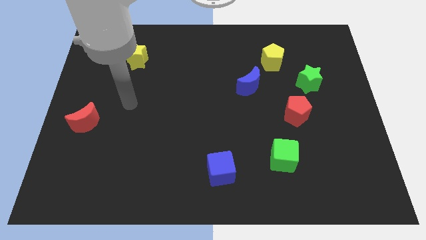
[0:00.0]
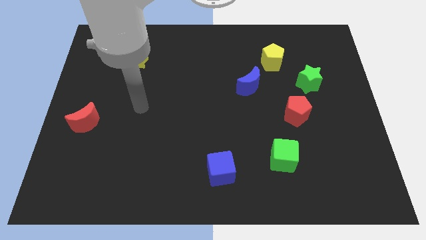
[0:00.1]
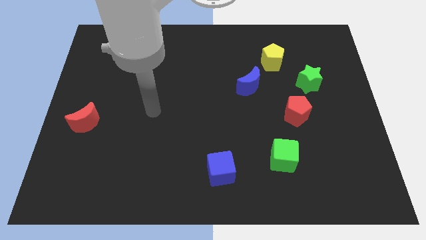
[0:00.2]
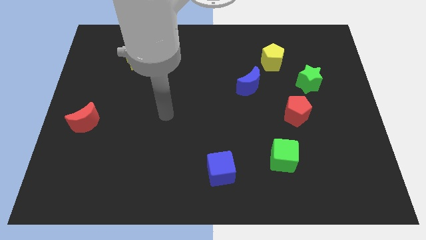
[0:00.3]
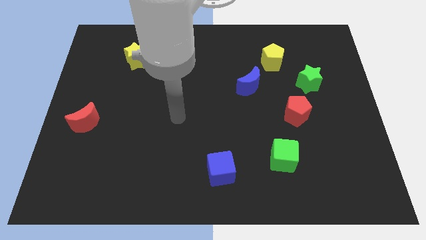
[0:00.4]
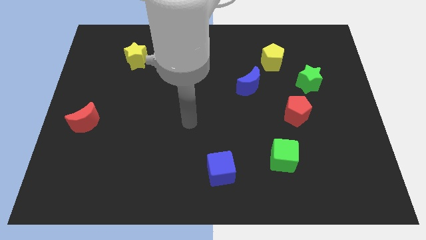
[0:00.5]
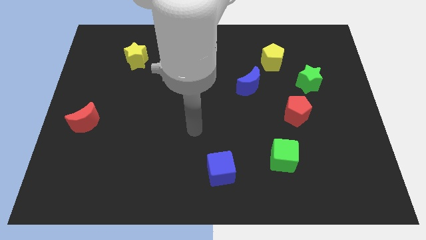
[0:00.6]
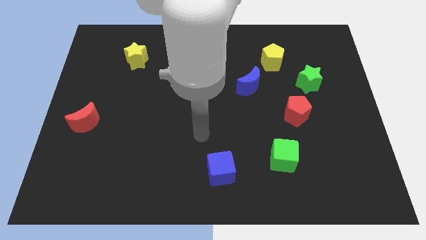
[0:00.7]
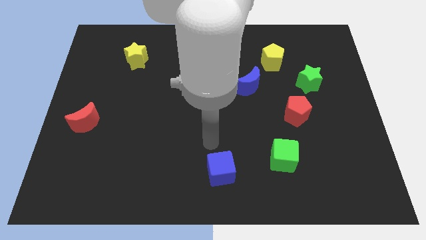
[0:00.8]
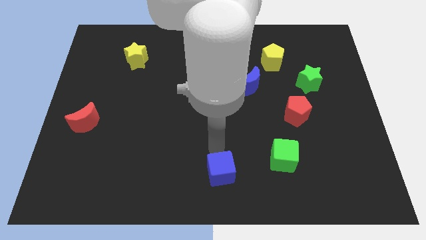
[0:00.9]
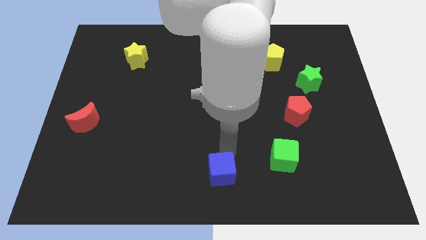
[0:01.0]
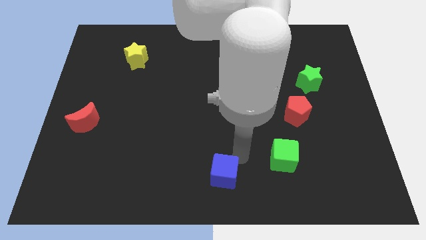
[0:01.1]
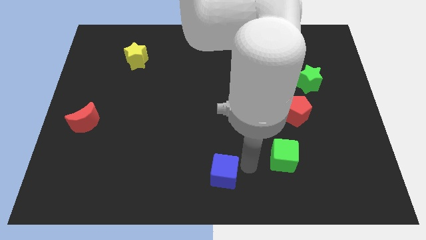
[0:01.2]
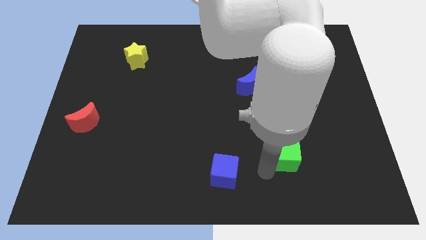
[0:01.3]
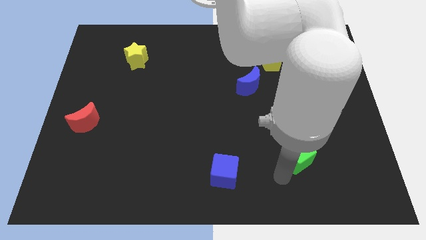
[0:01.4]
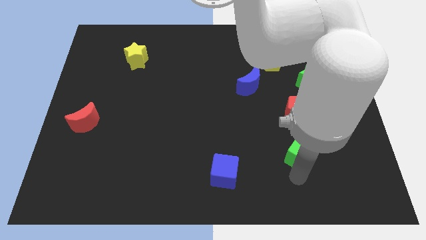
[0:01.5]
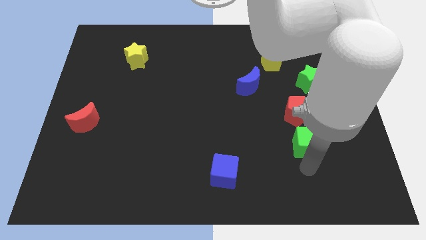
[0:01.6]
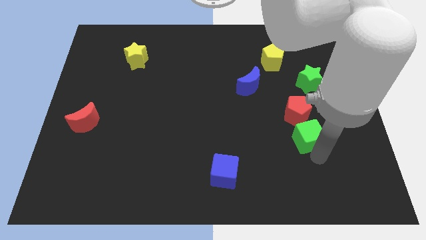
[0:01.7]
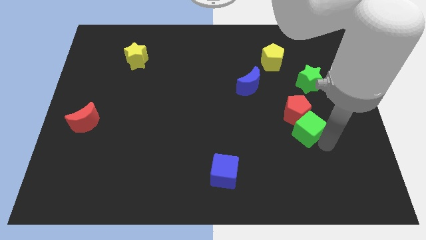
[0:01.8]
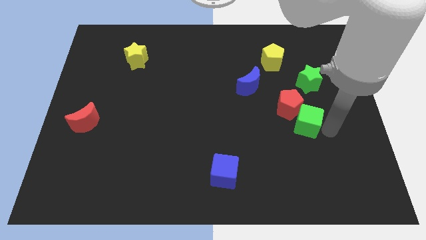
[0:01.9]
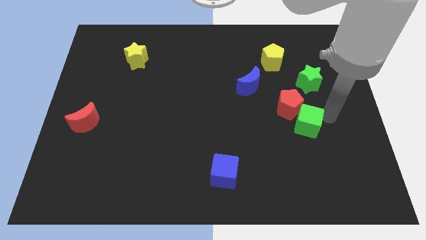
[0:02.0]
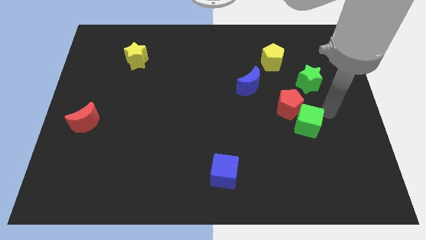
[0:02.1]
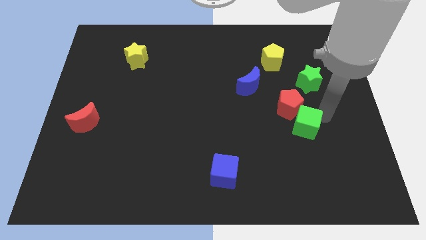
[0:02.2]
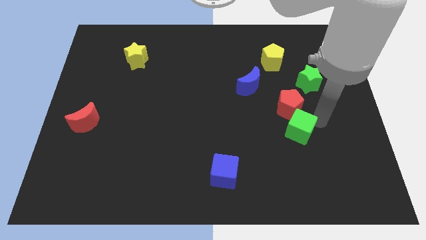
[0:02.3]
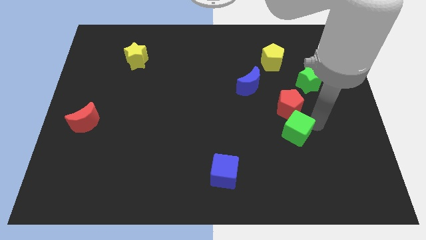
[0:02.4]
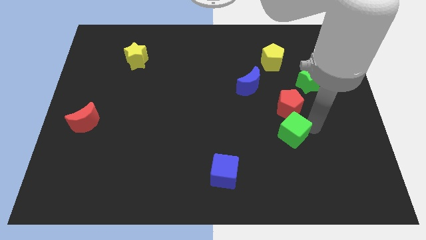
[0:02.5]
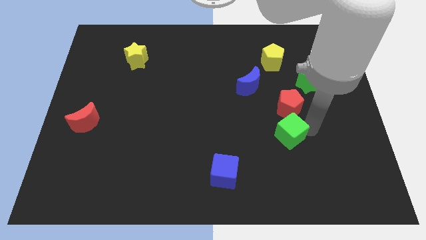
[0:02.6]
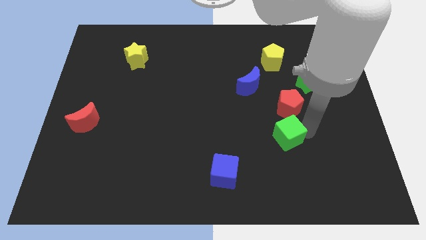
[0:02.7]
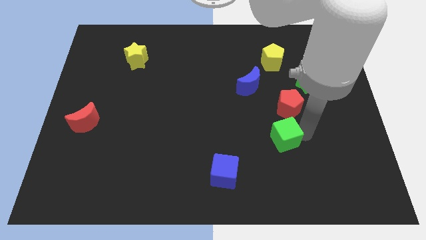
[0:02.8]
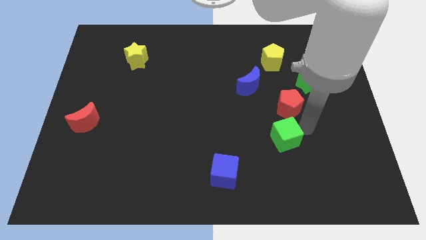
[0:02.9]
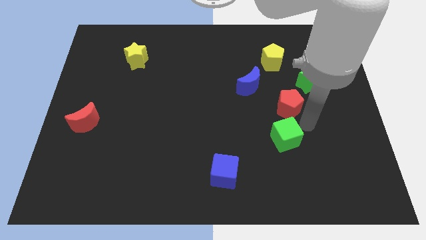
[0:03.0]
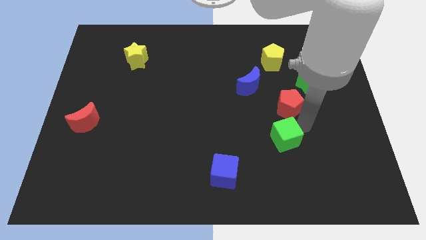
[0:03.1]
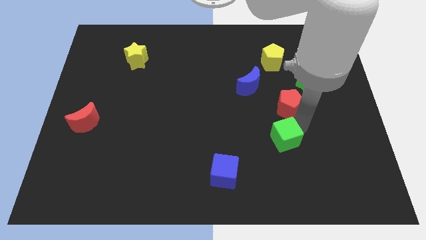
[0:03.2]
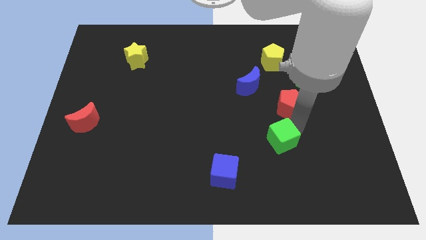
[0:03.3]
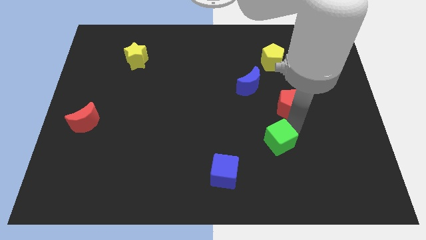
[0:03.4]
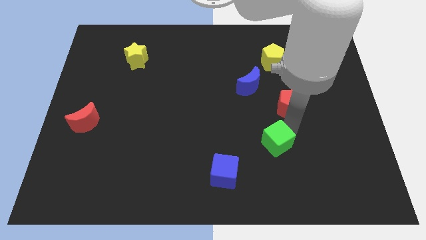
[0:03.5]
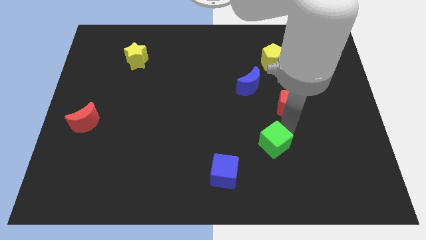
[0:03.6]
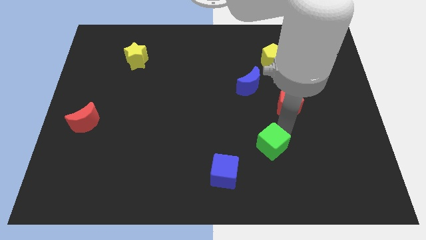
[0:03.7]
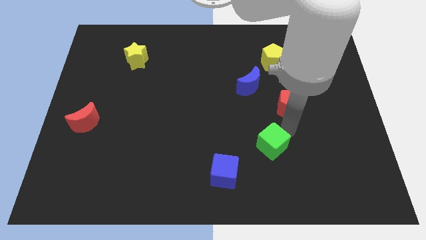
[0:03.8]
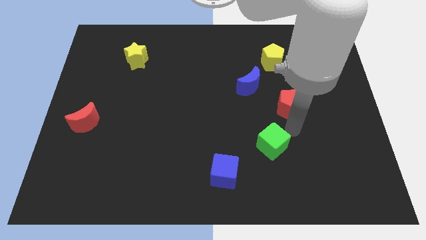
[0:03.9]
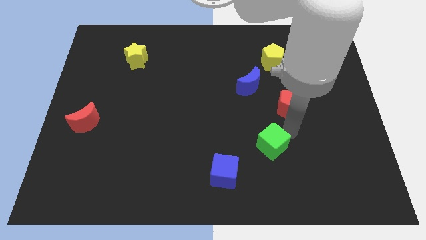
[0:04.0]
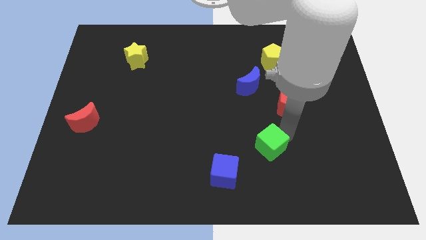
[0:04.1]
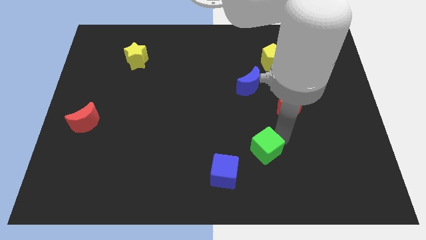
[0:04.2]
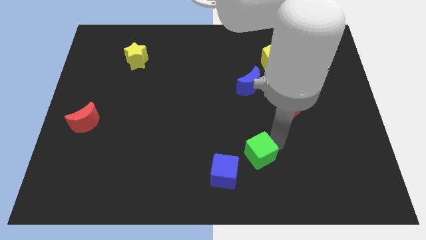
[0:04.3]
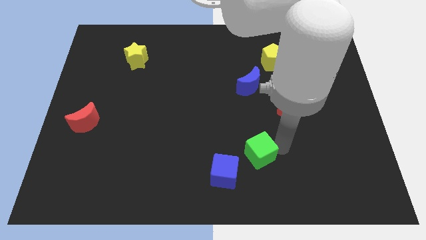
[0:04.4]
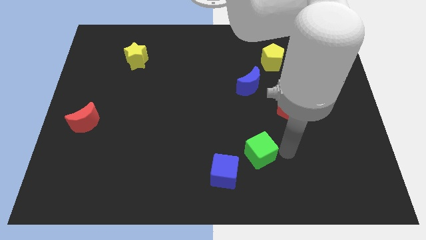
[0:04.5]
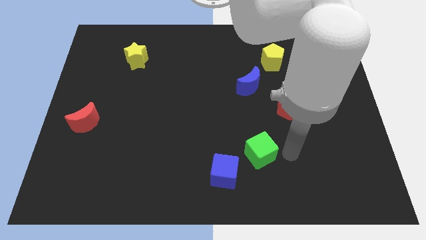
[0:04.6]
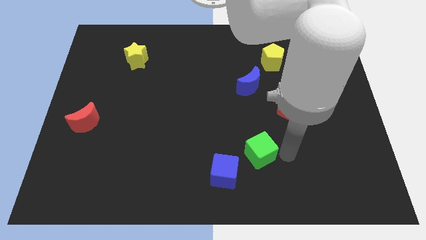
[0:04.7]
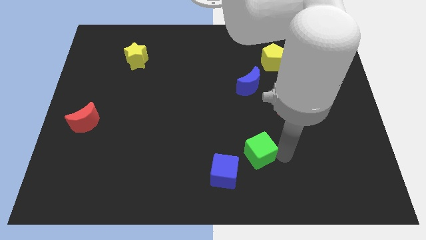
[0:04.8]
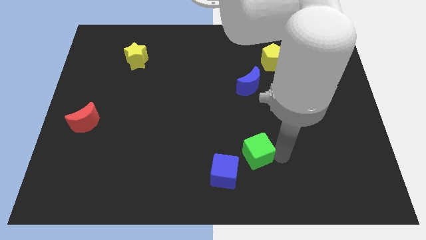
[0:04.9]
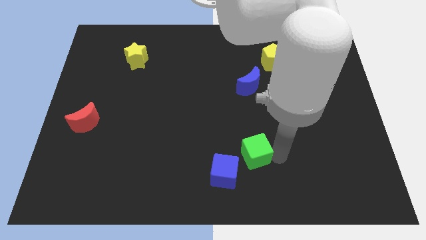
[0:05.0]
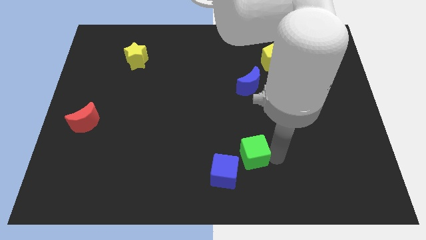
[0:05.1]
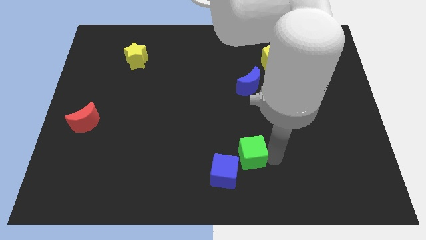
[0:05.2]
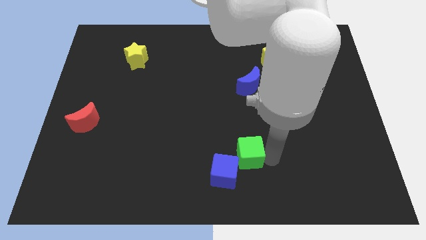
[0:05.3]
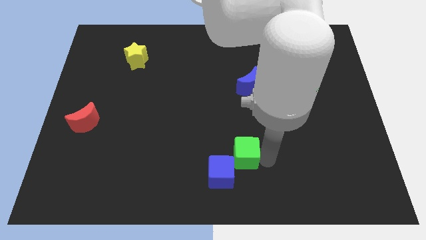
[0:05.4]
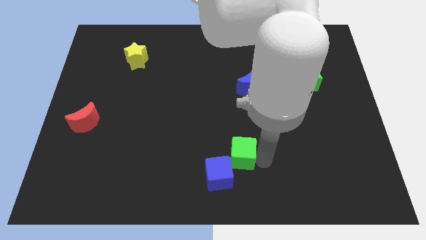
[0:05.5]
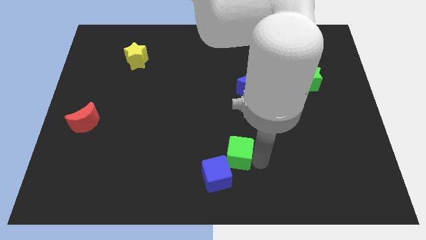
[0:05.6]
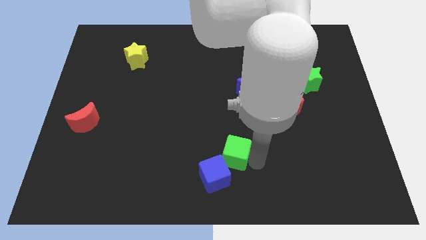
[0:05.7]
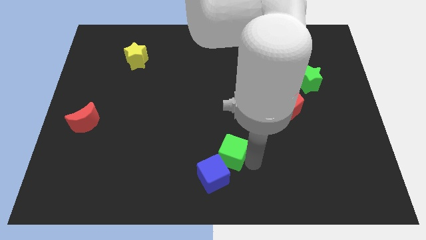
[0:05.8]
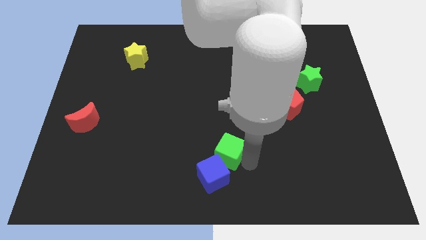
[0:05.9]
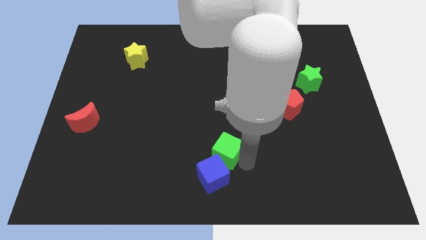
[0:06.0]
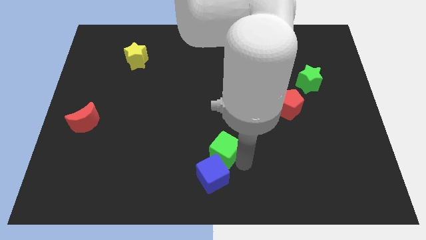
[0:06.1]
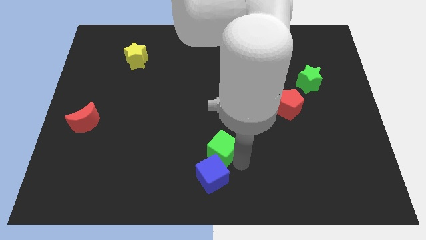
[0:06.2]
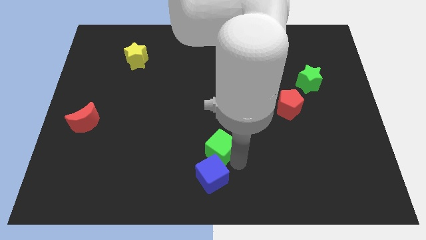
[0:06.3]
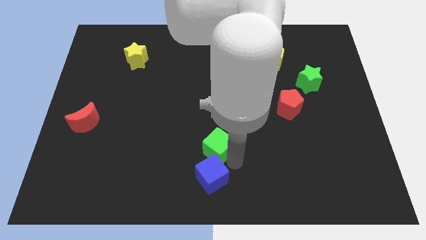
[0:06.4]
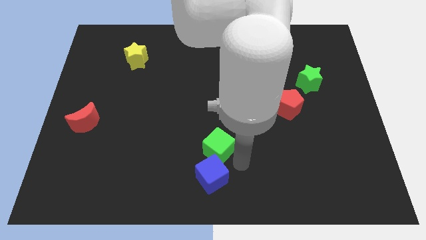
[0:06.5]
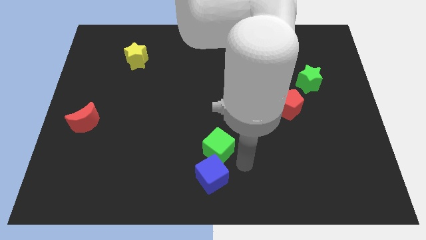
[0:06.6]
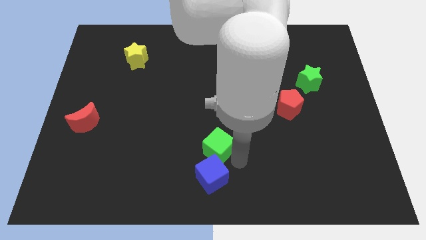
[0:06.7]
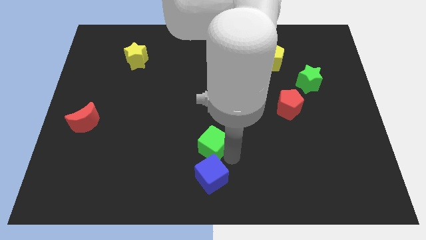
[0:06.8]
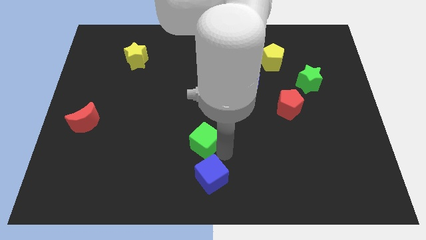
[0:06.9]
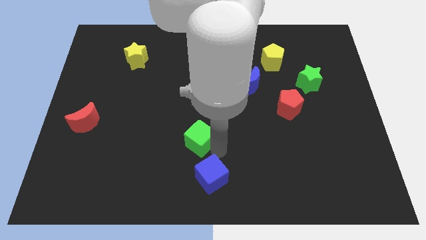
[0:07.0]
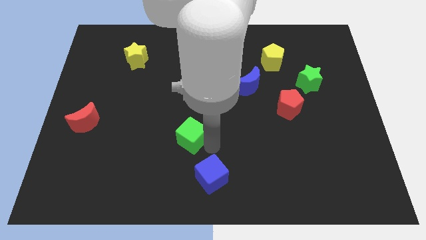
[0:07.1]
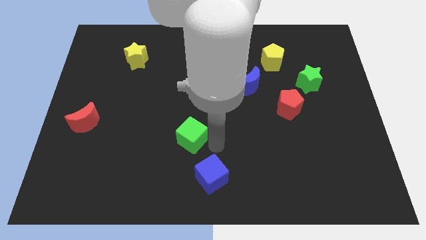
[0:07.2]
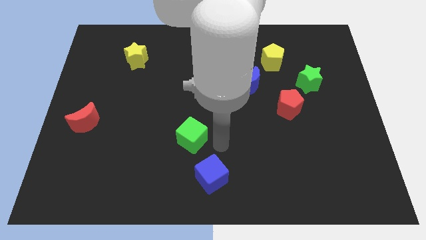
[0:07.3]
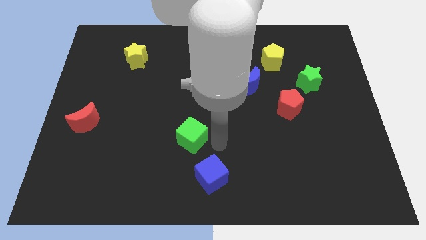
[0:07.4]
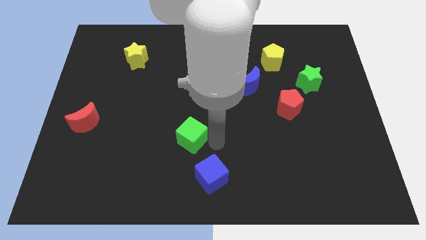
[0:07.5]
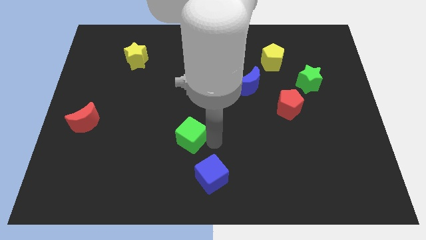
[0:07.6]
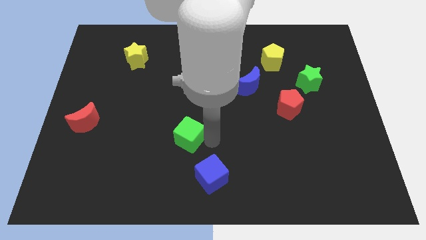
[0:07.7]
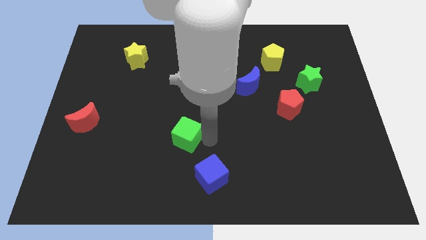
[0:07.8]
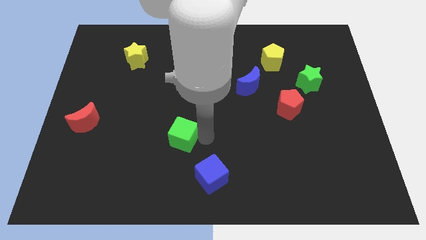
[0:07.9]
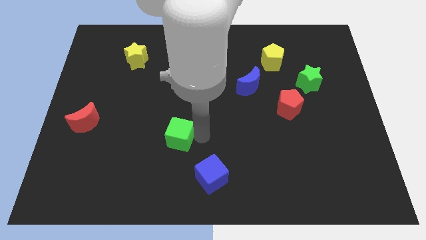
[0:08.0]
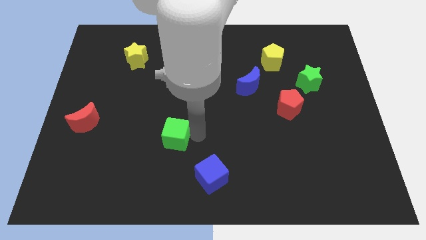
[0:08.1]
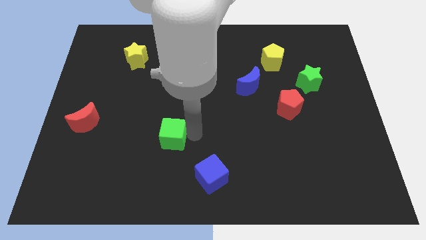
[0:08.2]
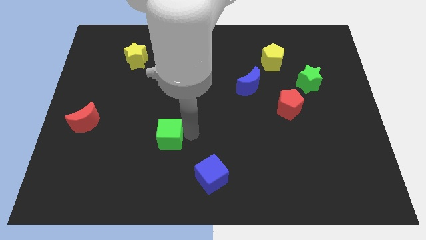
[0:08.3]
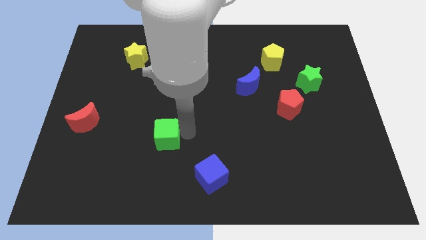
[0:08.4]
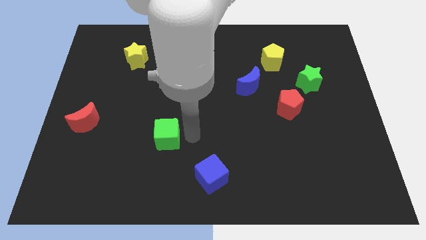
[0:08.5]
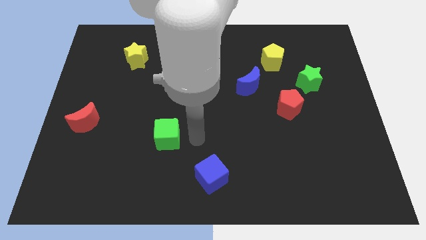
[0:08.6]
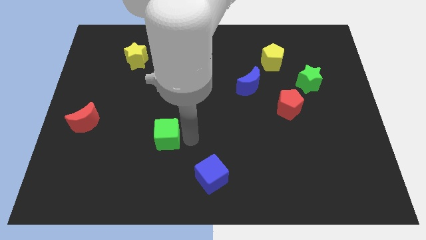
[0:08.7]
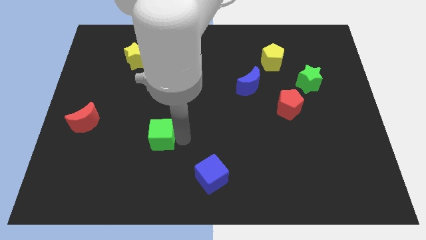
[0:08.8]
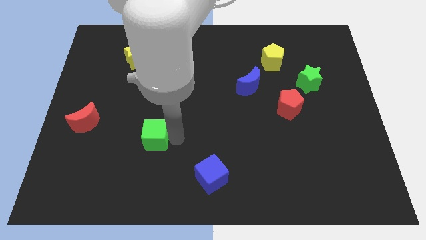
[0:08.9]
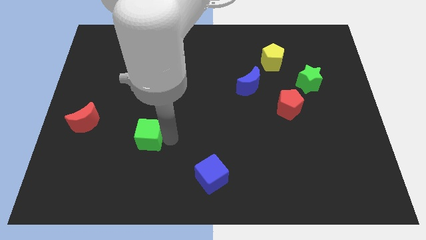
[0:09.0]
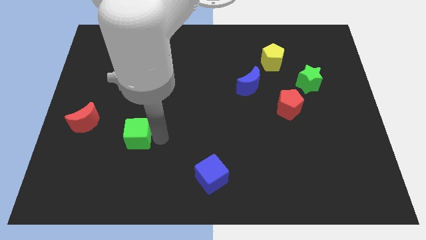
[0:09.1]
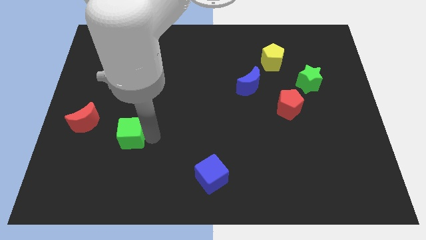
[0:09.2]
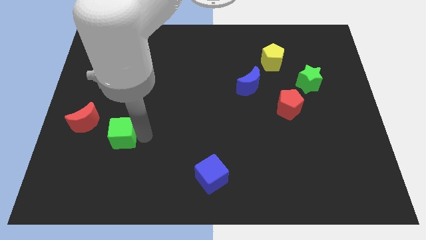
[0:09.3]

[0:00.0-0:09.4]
slide the green cube diagonally down and to the right of the red moon
